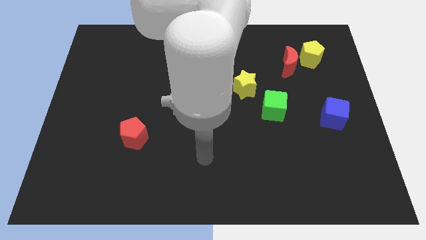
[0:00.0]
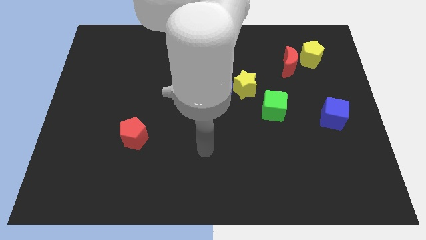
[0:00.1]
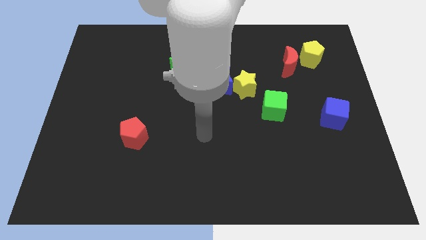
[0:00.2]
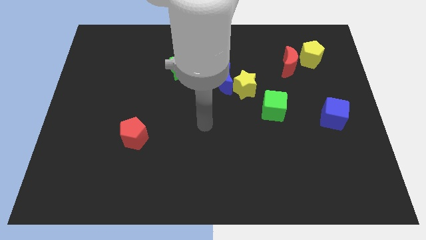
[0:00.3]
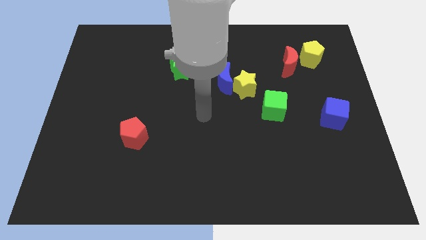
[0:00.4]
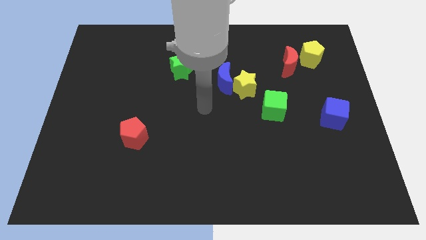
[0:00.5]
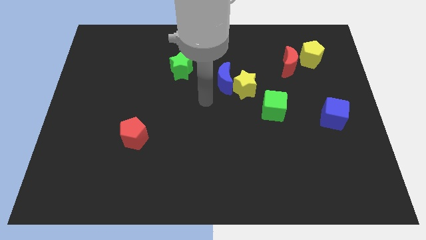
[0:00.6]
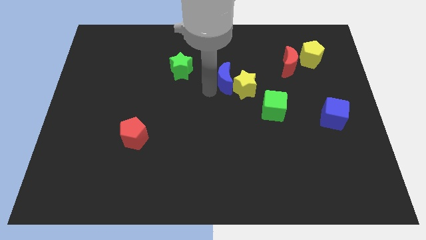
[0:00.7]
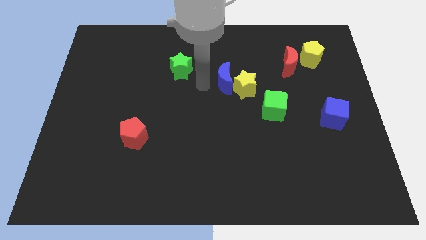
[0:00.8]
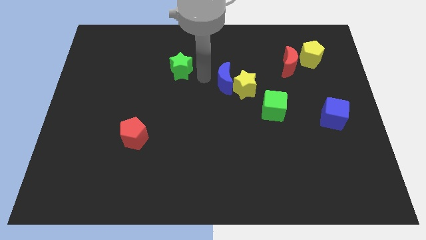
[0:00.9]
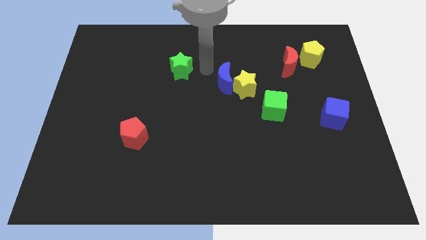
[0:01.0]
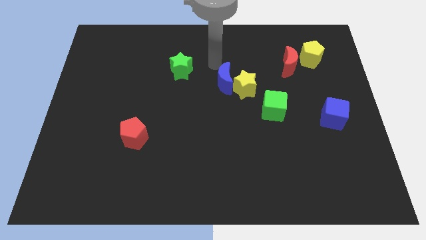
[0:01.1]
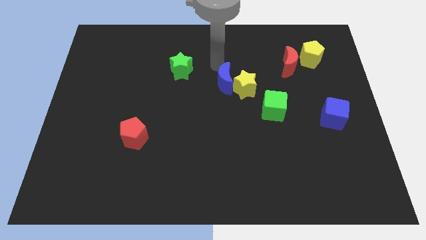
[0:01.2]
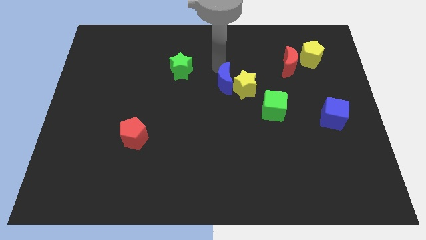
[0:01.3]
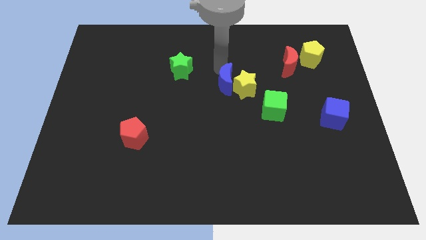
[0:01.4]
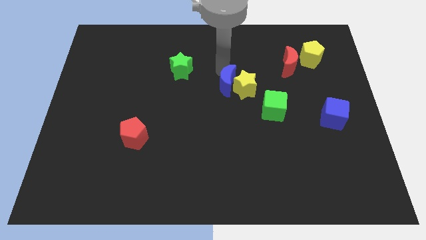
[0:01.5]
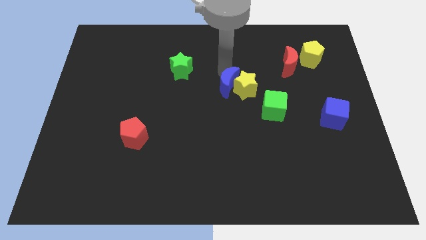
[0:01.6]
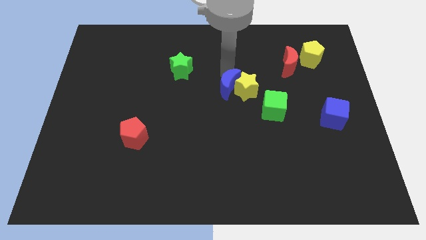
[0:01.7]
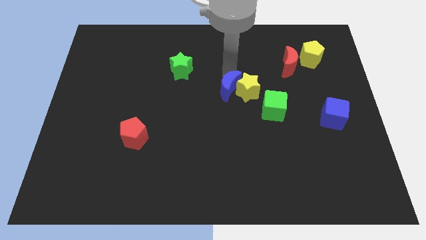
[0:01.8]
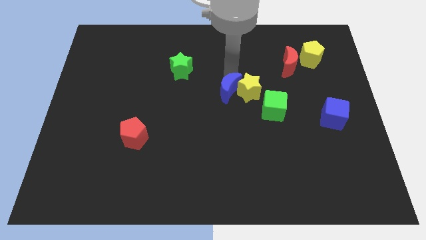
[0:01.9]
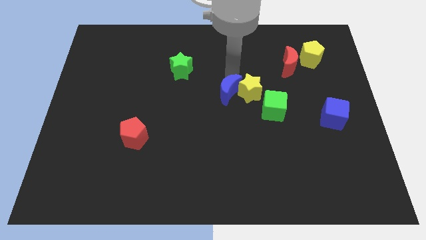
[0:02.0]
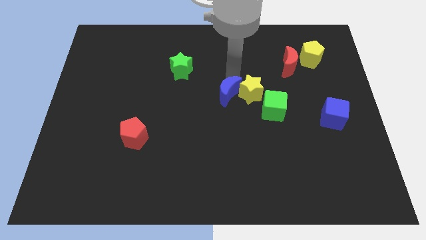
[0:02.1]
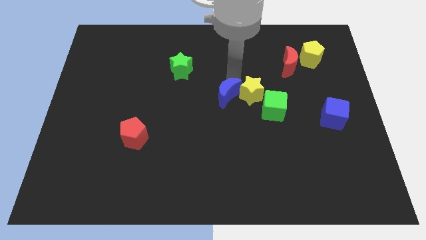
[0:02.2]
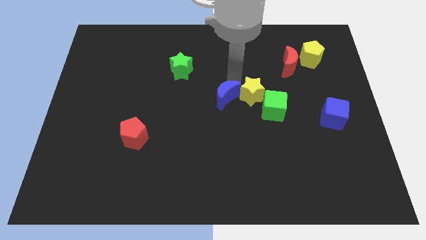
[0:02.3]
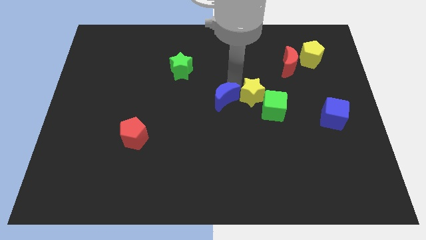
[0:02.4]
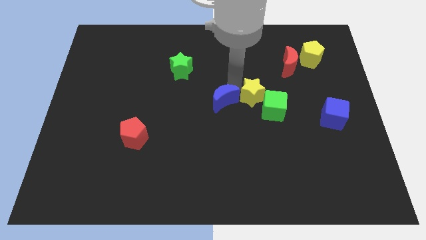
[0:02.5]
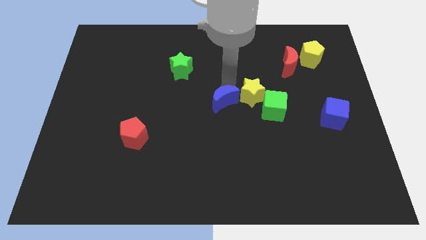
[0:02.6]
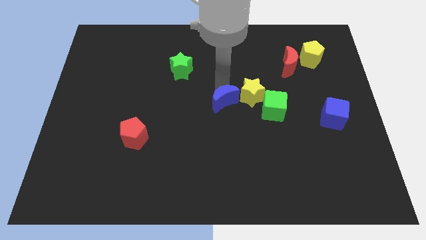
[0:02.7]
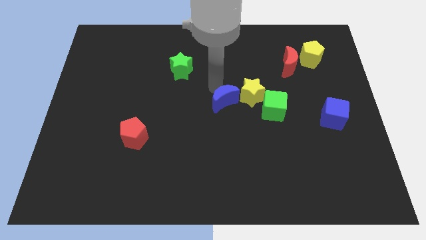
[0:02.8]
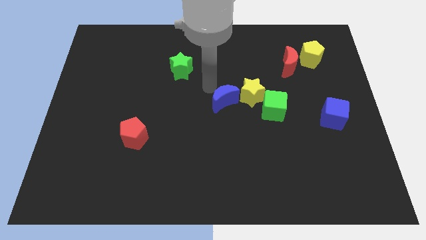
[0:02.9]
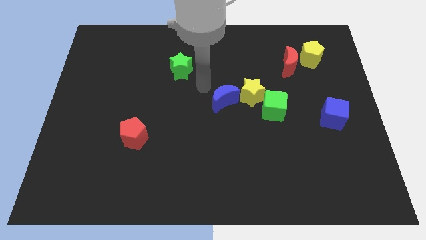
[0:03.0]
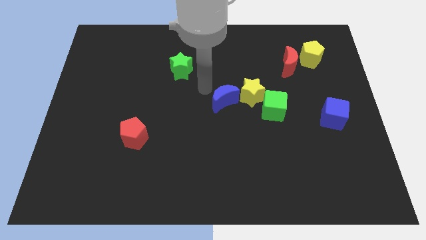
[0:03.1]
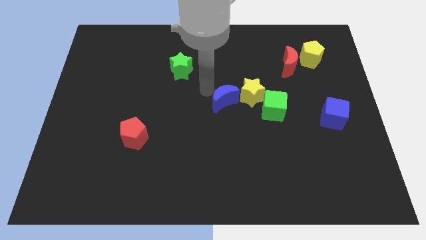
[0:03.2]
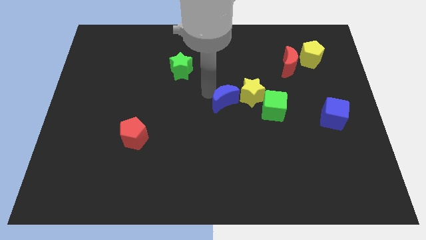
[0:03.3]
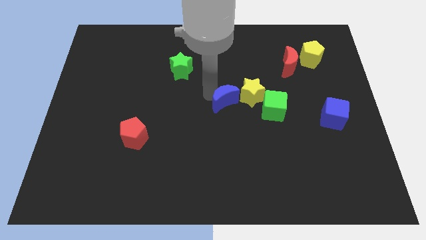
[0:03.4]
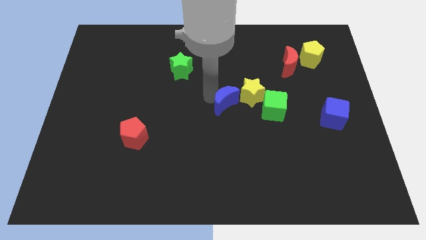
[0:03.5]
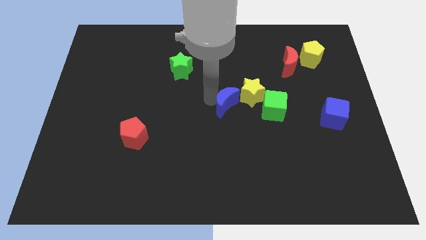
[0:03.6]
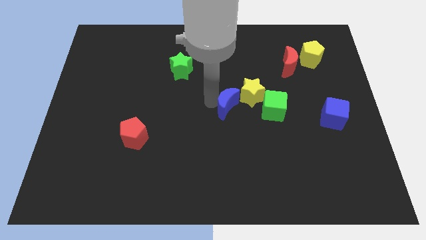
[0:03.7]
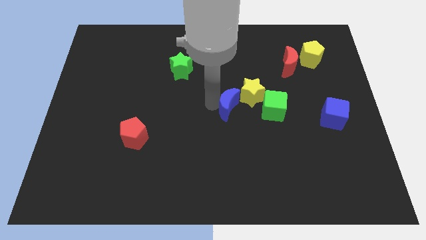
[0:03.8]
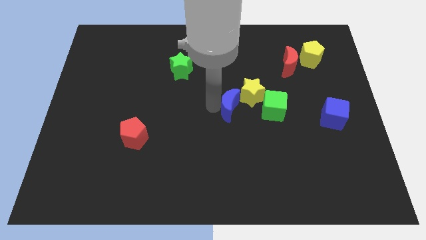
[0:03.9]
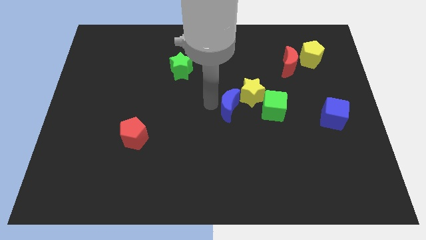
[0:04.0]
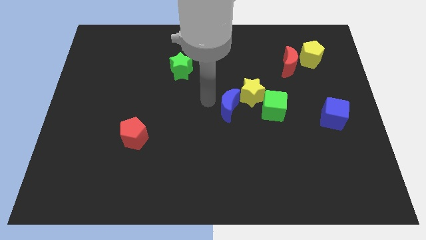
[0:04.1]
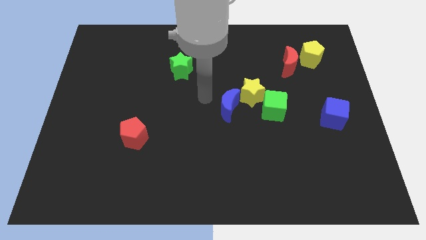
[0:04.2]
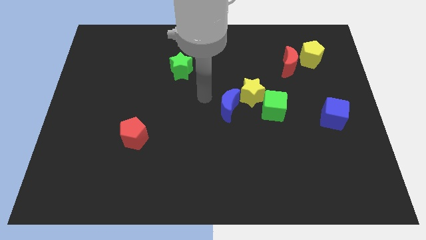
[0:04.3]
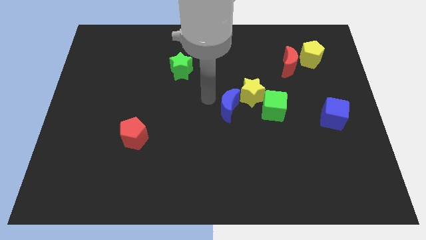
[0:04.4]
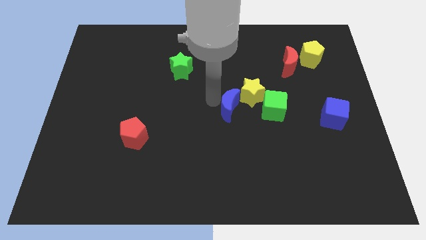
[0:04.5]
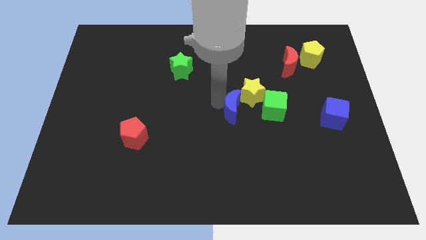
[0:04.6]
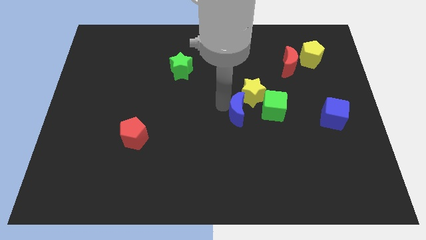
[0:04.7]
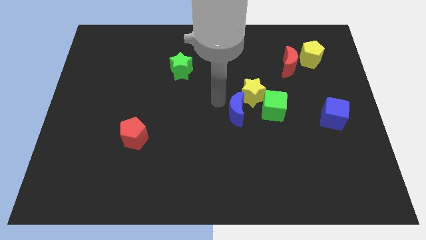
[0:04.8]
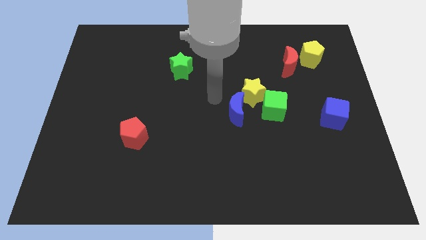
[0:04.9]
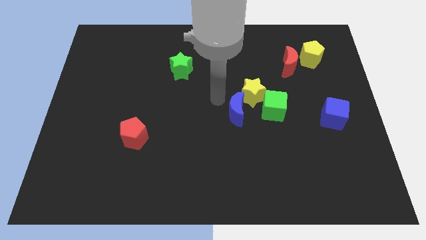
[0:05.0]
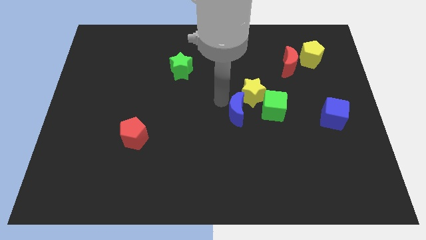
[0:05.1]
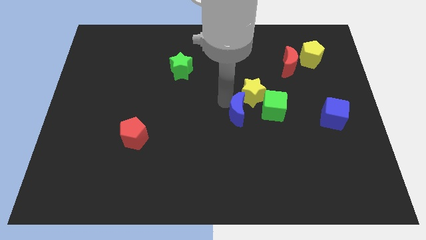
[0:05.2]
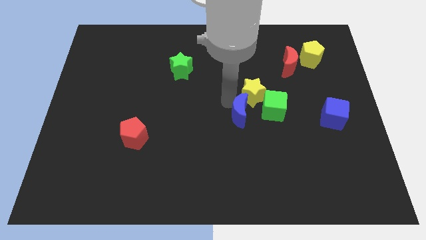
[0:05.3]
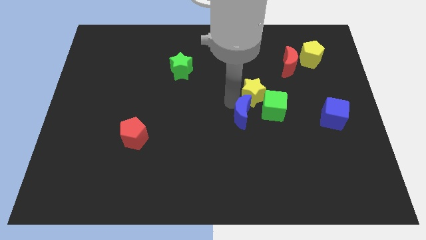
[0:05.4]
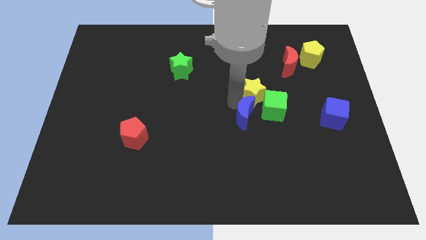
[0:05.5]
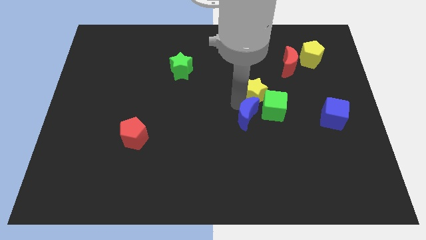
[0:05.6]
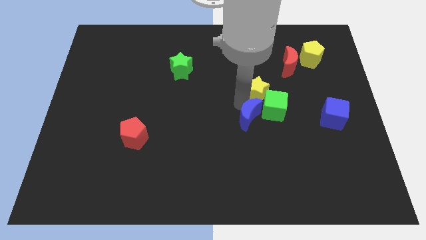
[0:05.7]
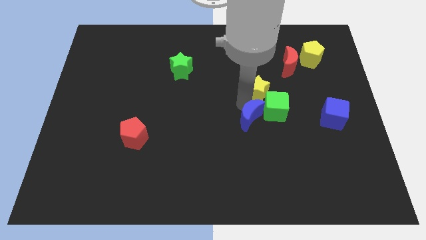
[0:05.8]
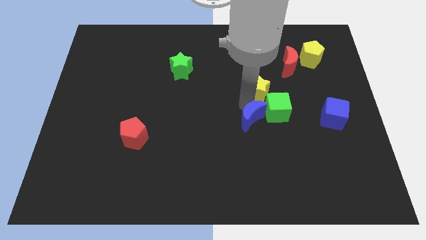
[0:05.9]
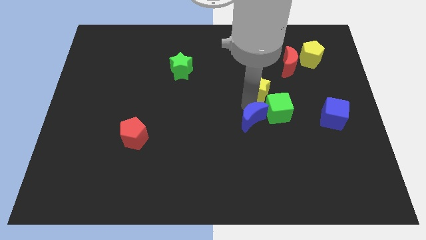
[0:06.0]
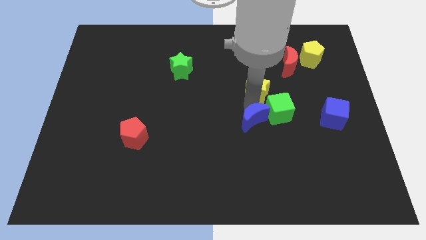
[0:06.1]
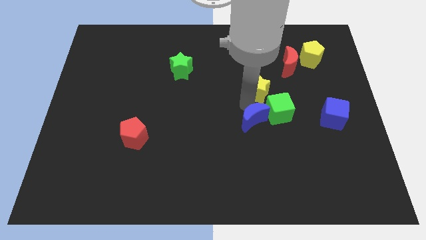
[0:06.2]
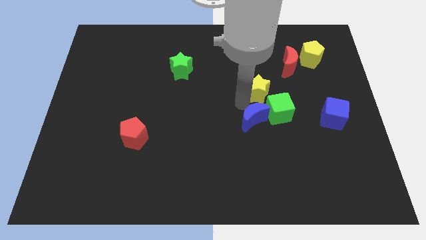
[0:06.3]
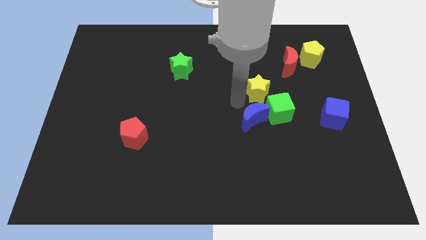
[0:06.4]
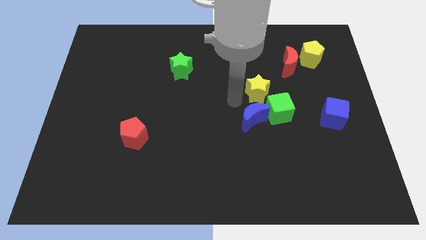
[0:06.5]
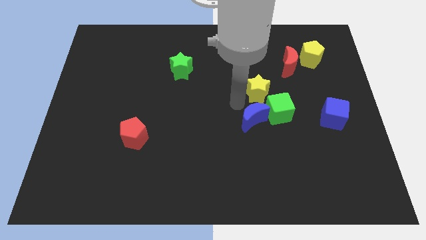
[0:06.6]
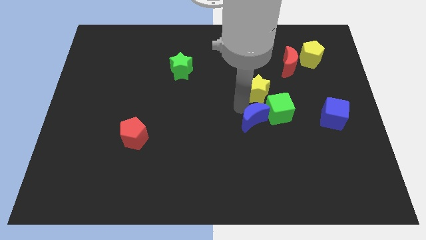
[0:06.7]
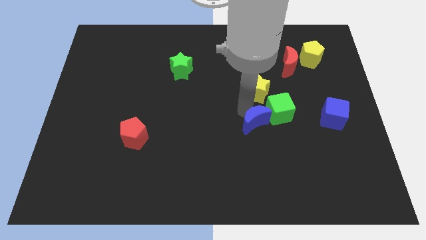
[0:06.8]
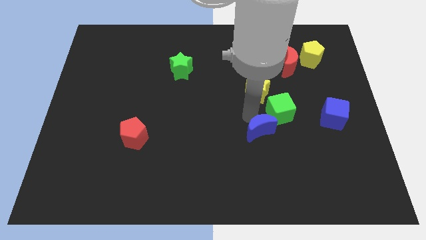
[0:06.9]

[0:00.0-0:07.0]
put the blue moon to the bottom of the green cube
